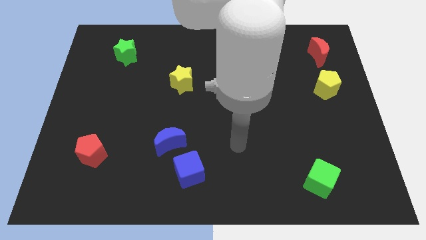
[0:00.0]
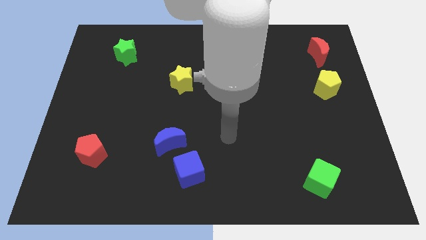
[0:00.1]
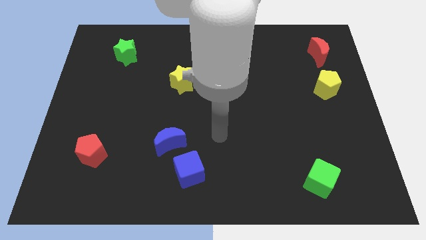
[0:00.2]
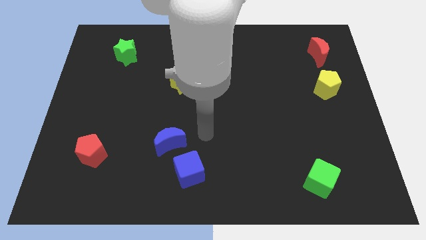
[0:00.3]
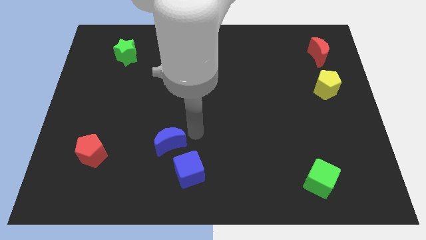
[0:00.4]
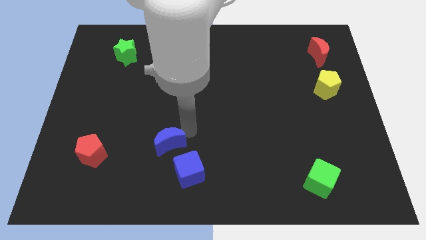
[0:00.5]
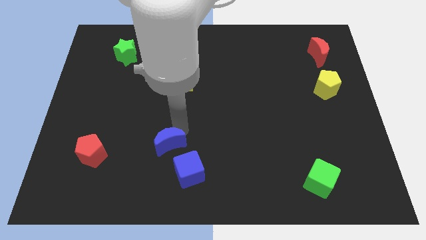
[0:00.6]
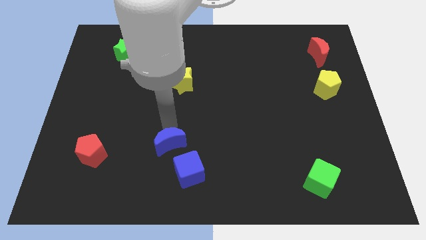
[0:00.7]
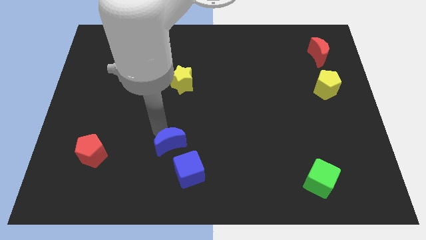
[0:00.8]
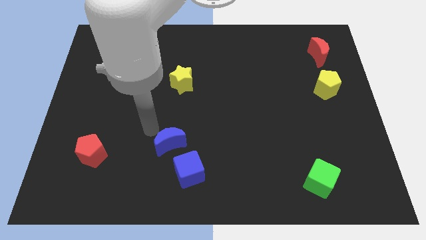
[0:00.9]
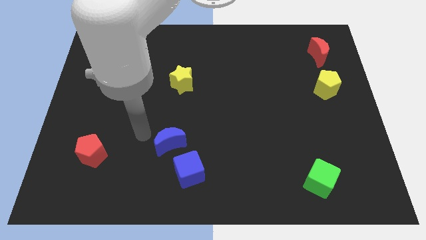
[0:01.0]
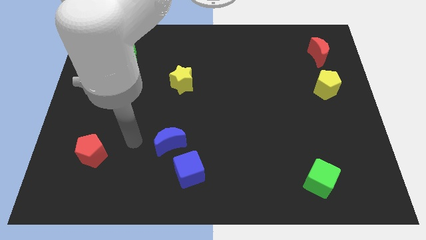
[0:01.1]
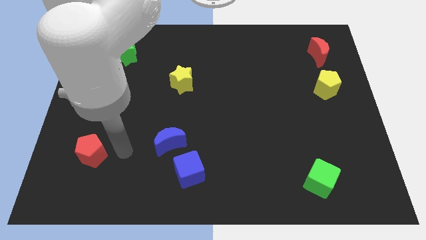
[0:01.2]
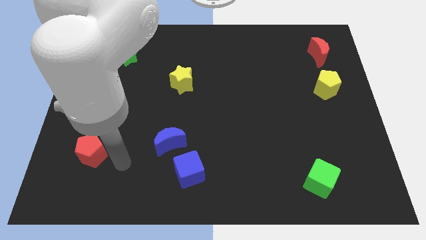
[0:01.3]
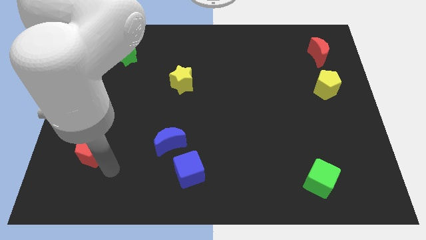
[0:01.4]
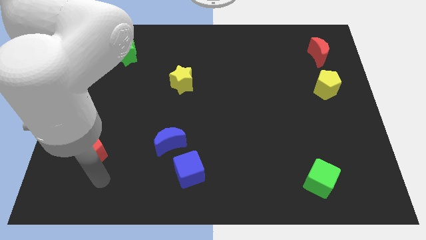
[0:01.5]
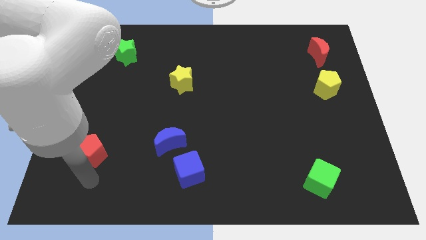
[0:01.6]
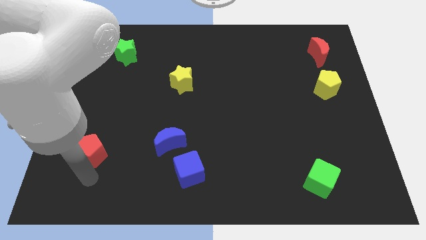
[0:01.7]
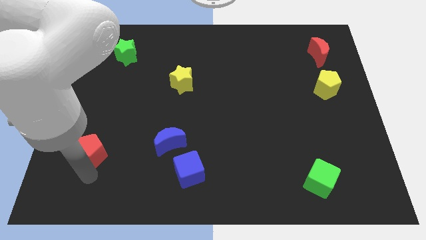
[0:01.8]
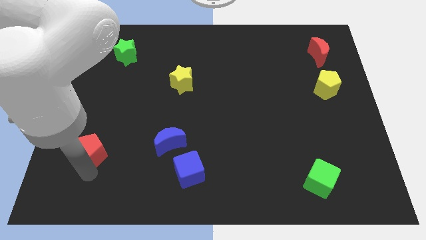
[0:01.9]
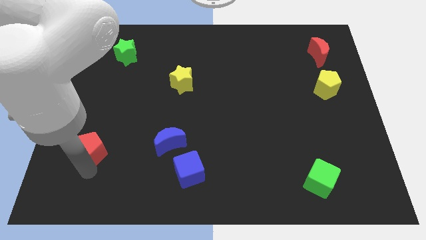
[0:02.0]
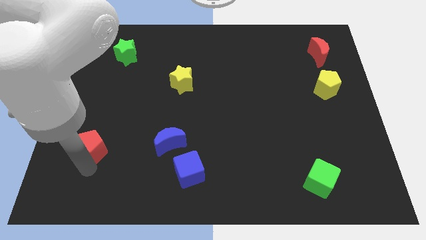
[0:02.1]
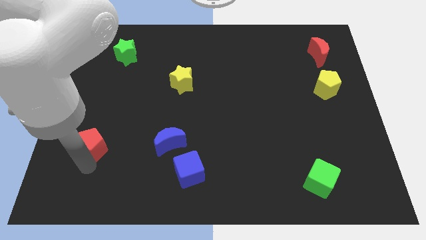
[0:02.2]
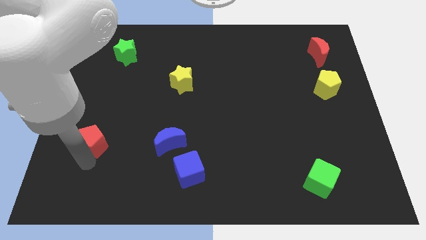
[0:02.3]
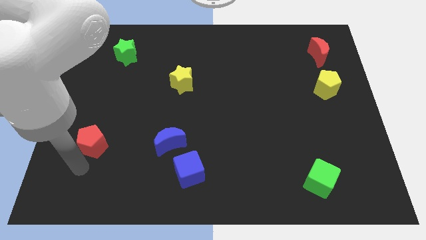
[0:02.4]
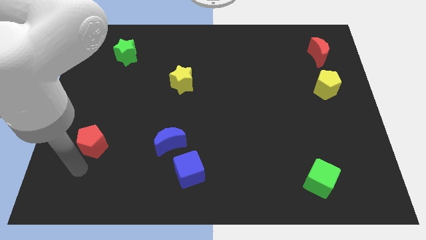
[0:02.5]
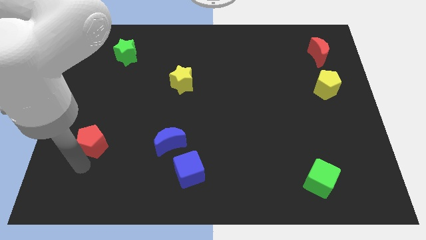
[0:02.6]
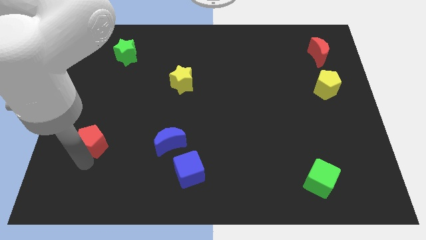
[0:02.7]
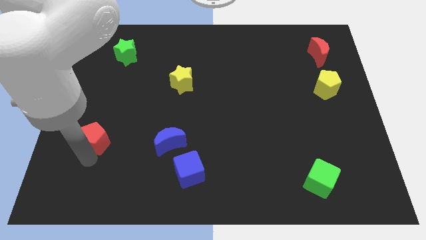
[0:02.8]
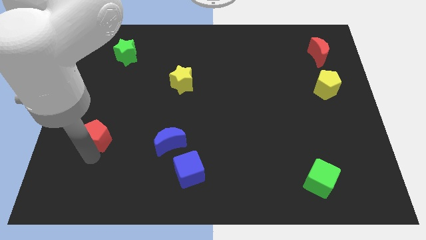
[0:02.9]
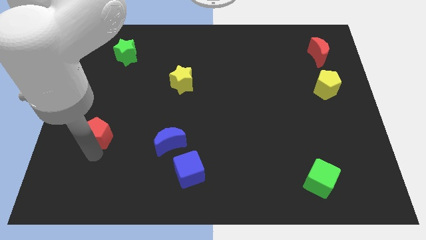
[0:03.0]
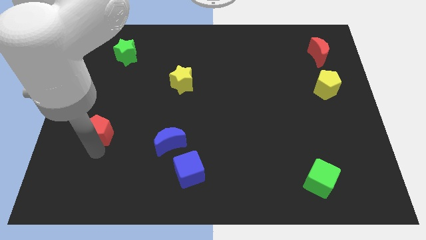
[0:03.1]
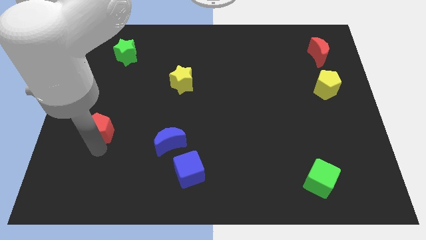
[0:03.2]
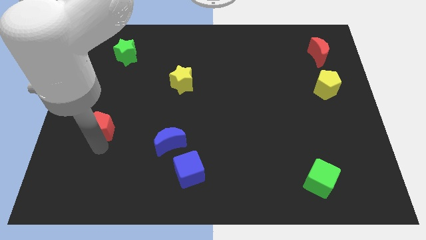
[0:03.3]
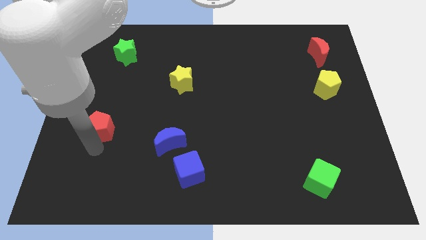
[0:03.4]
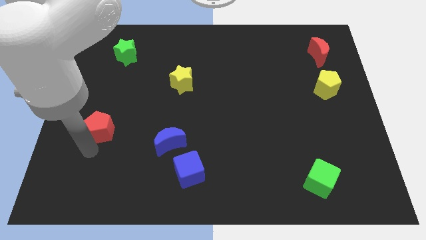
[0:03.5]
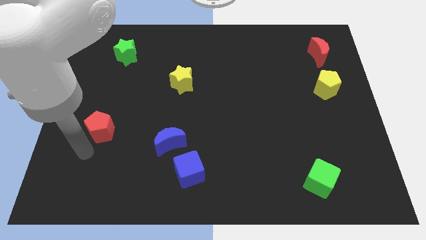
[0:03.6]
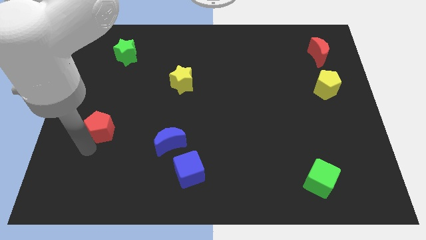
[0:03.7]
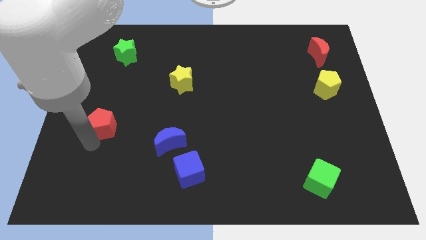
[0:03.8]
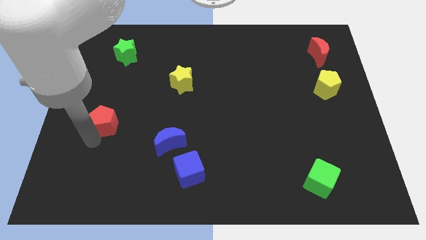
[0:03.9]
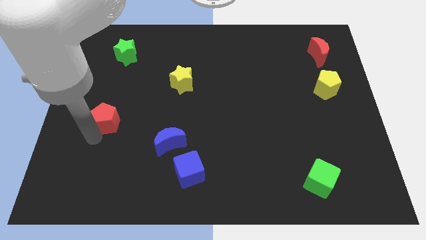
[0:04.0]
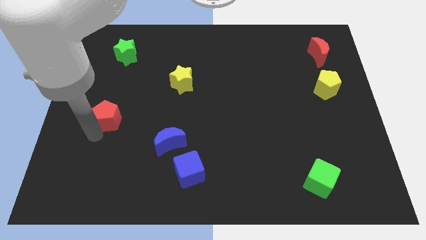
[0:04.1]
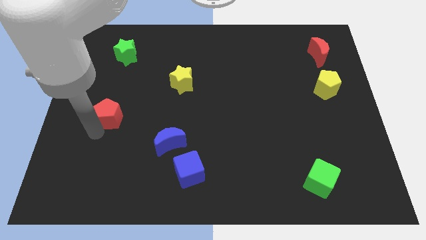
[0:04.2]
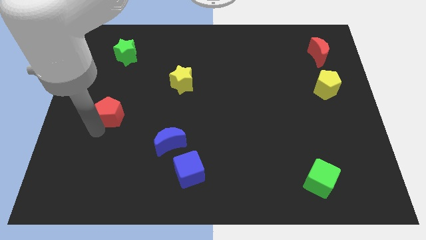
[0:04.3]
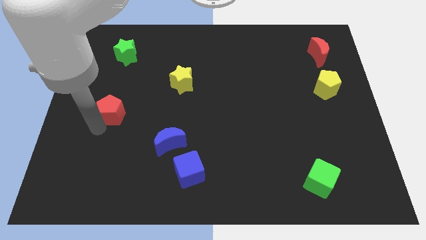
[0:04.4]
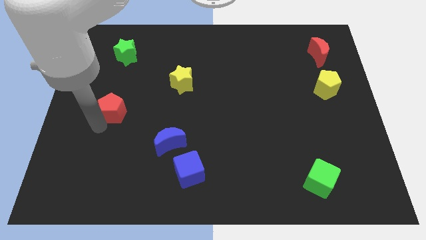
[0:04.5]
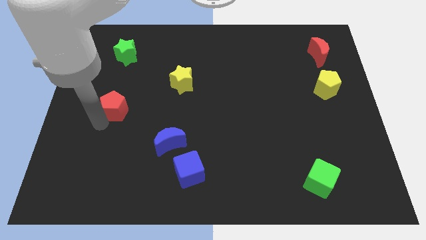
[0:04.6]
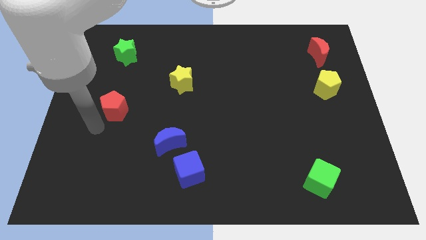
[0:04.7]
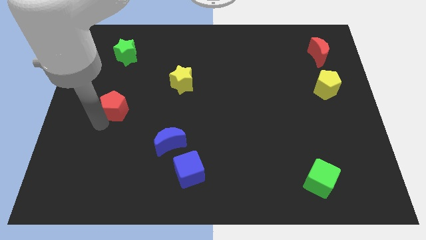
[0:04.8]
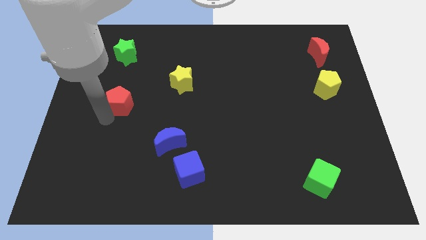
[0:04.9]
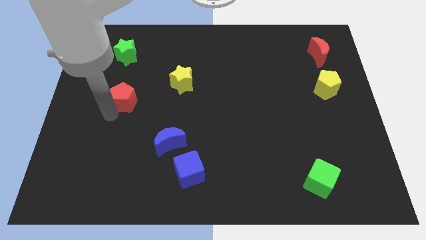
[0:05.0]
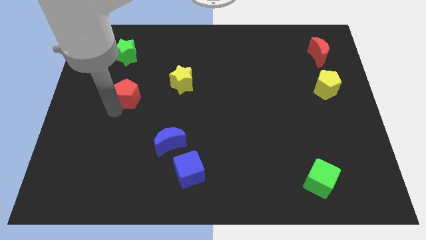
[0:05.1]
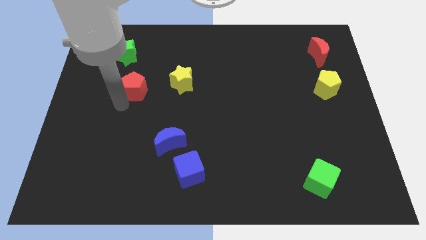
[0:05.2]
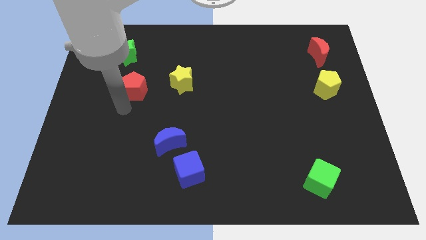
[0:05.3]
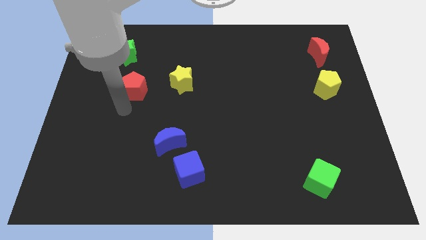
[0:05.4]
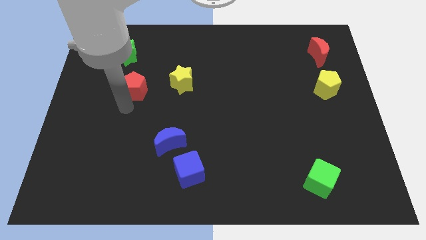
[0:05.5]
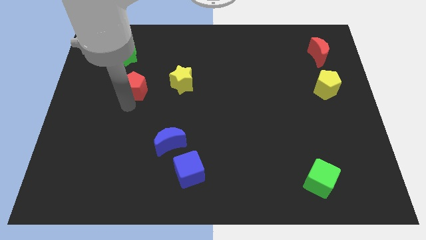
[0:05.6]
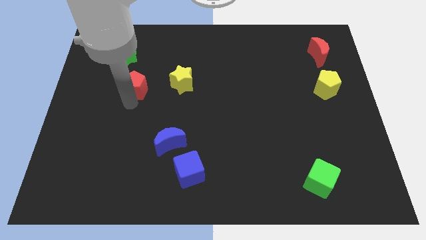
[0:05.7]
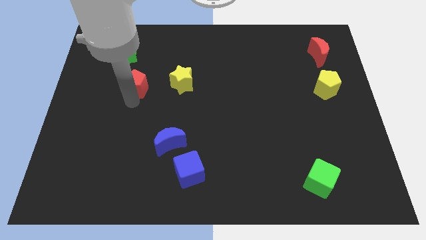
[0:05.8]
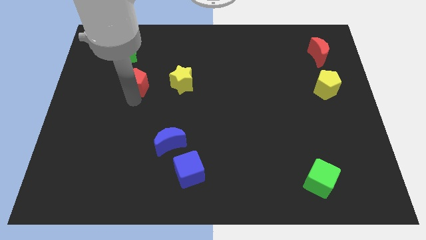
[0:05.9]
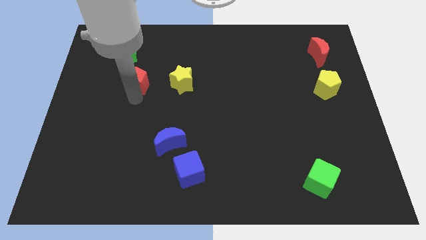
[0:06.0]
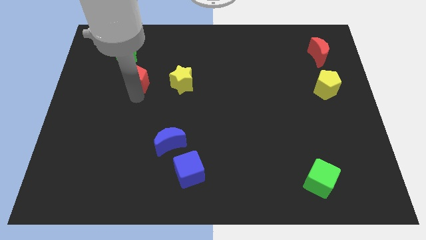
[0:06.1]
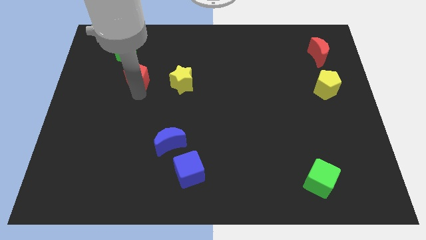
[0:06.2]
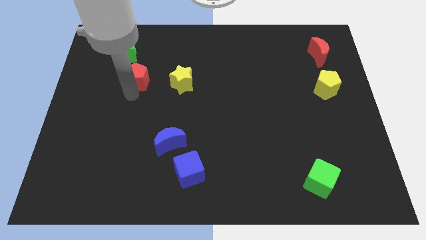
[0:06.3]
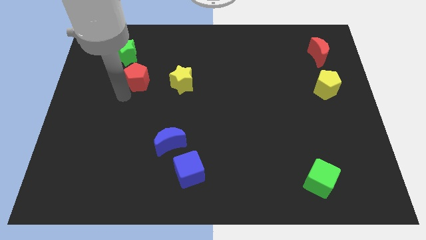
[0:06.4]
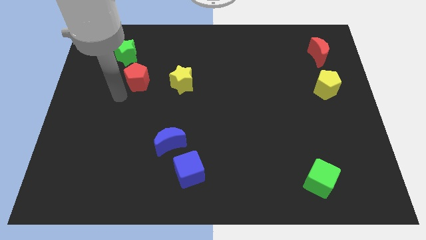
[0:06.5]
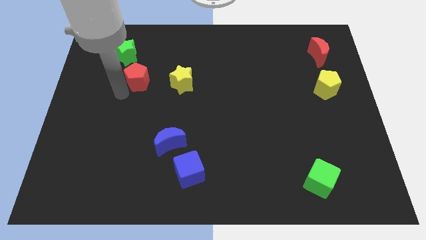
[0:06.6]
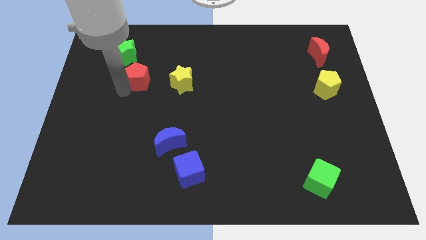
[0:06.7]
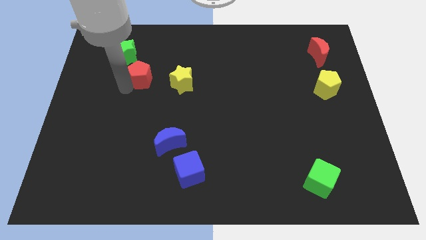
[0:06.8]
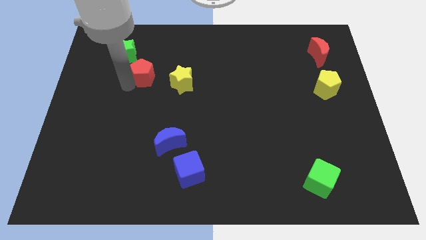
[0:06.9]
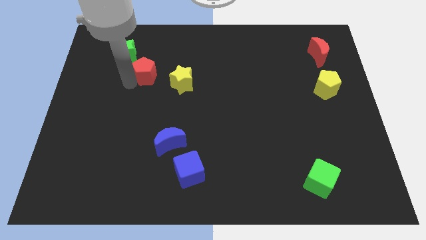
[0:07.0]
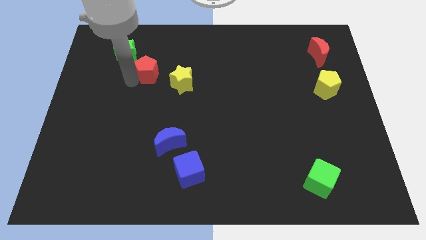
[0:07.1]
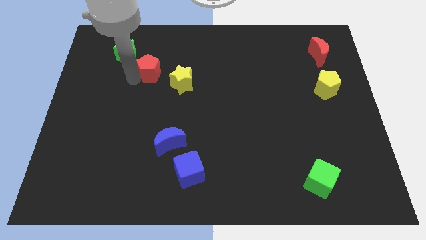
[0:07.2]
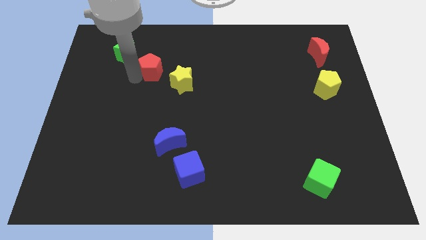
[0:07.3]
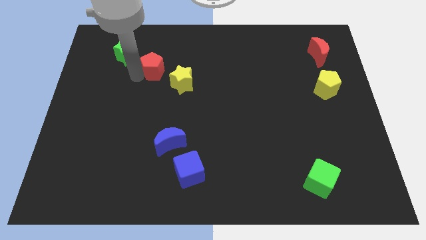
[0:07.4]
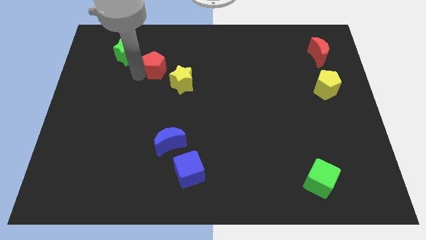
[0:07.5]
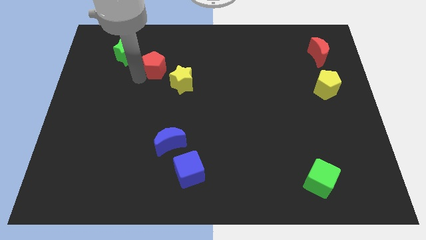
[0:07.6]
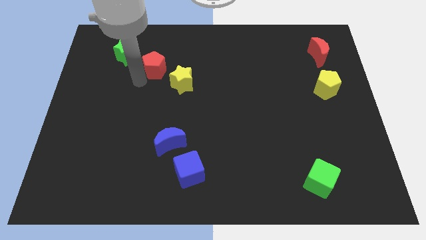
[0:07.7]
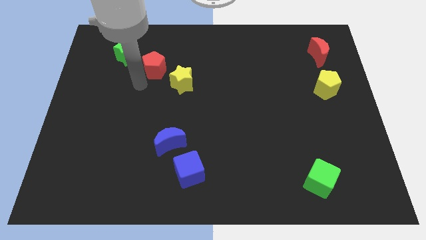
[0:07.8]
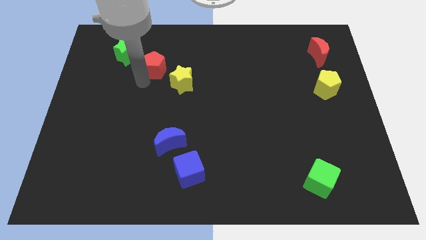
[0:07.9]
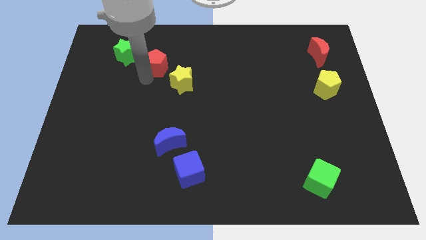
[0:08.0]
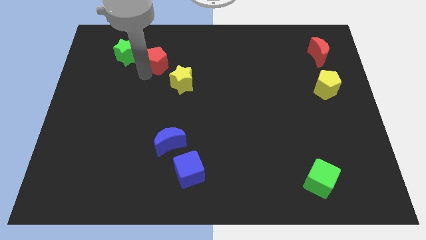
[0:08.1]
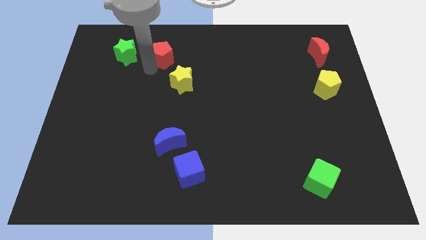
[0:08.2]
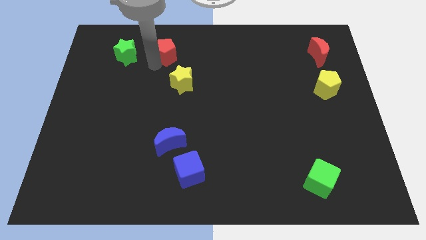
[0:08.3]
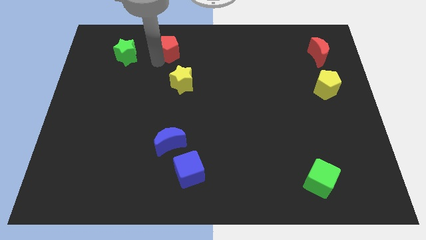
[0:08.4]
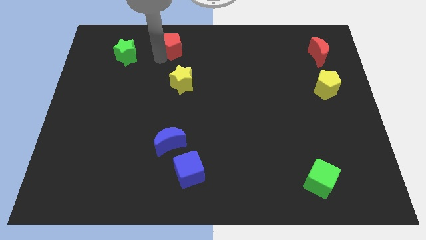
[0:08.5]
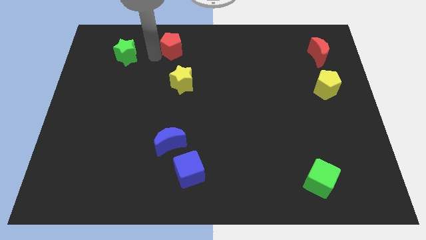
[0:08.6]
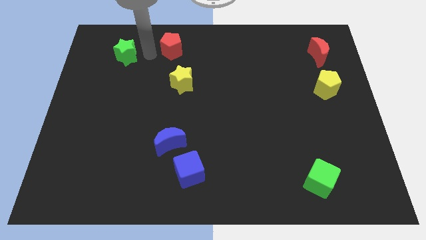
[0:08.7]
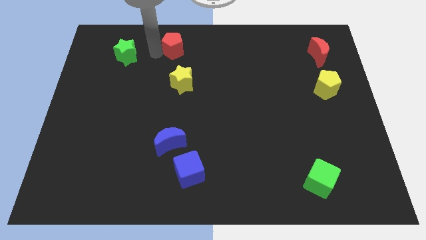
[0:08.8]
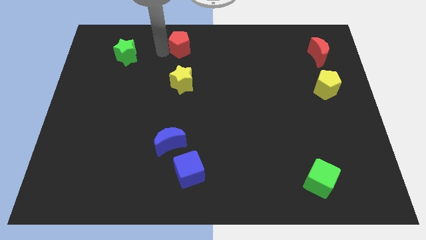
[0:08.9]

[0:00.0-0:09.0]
move the red pentagon to the top side
